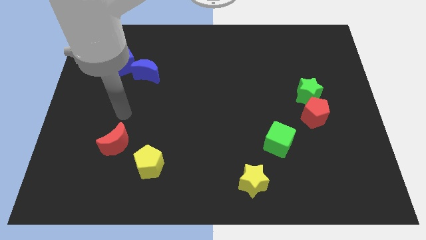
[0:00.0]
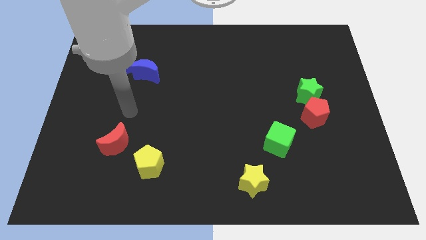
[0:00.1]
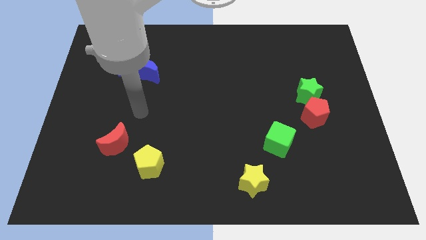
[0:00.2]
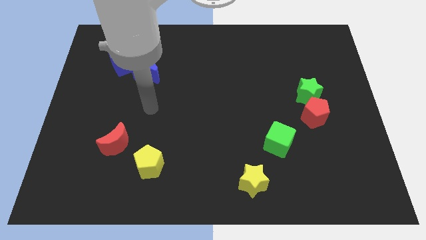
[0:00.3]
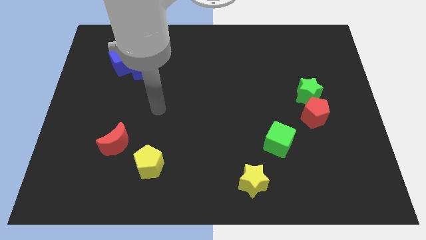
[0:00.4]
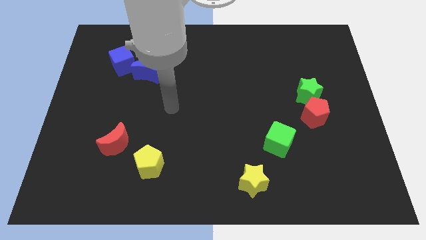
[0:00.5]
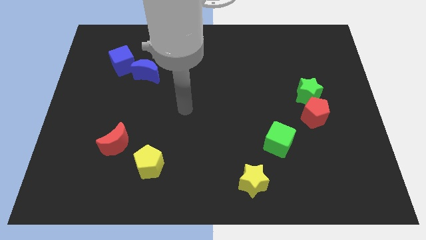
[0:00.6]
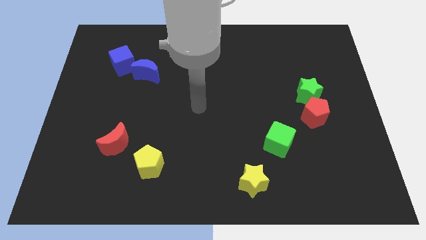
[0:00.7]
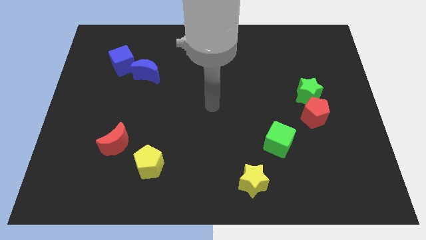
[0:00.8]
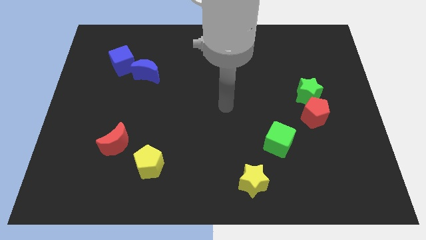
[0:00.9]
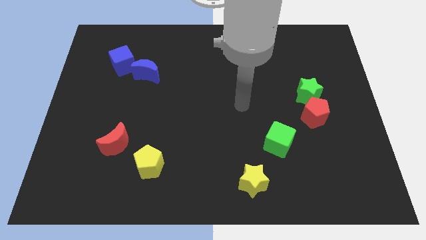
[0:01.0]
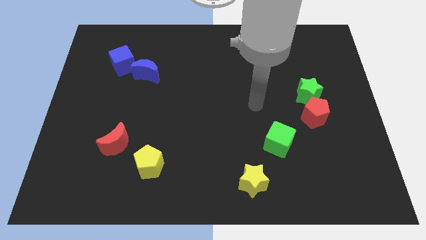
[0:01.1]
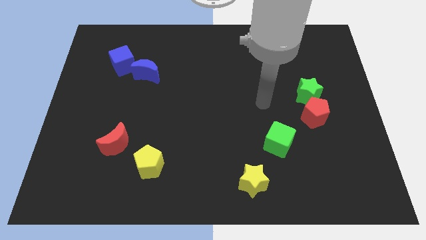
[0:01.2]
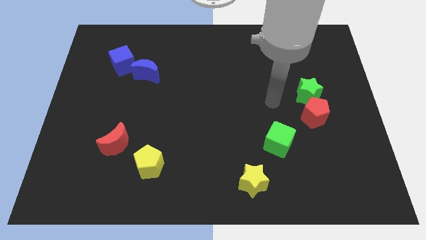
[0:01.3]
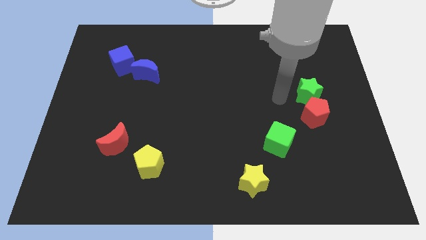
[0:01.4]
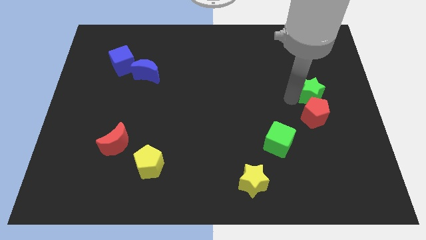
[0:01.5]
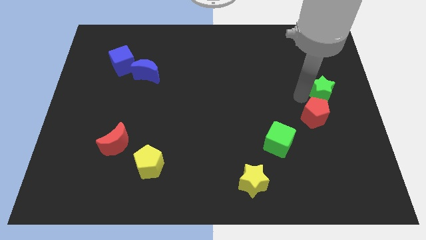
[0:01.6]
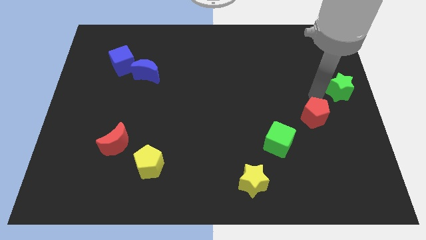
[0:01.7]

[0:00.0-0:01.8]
move the red pentagon away from the green star

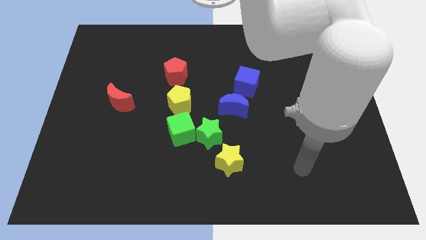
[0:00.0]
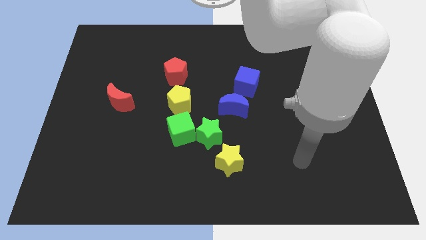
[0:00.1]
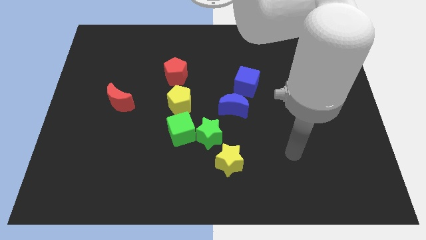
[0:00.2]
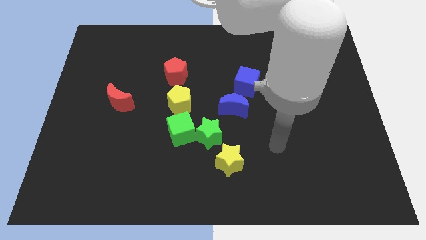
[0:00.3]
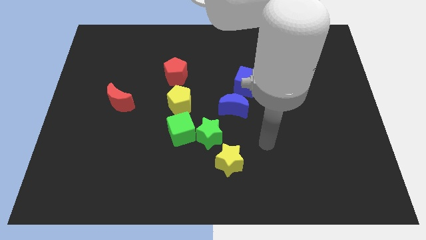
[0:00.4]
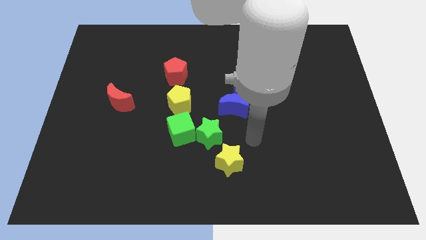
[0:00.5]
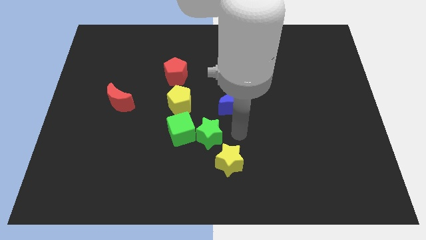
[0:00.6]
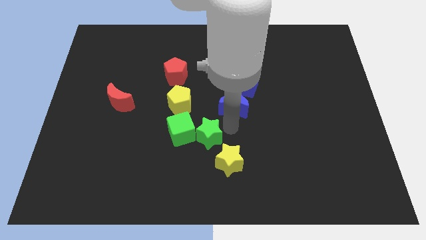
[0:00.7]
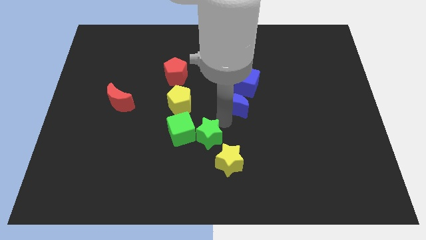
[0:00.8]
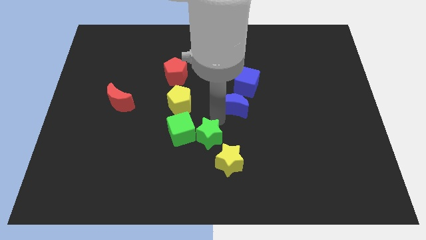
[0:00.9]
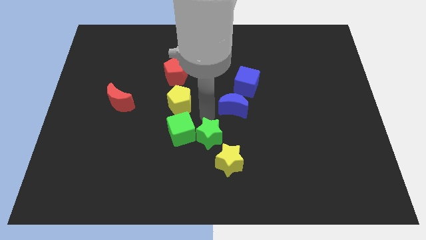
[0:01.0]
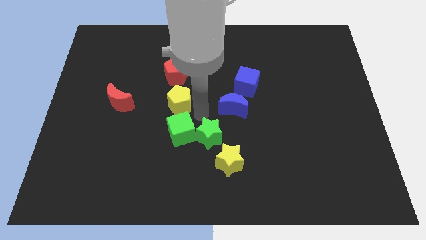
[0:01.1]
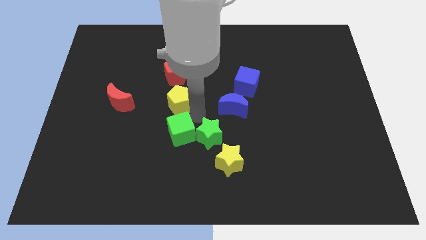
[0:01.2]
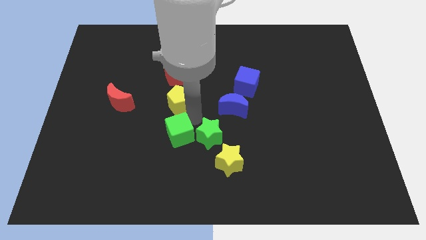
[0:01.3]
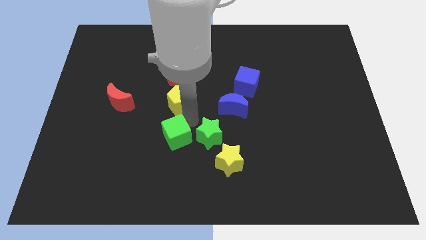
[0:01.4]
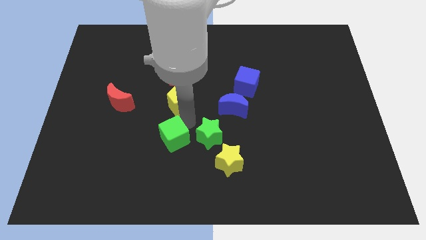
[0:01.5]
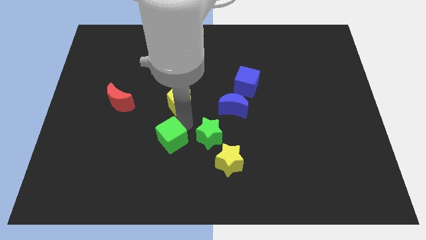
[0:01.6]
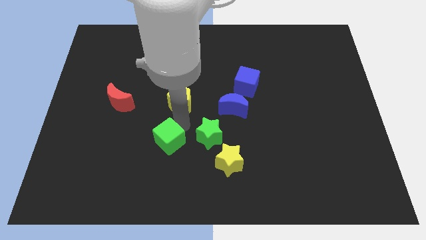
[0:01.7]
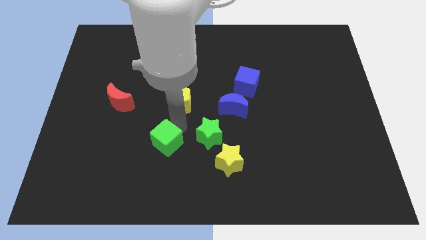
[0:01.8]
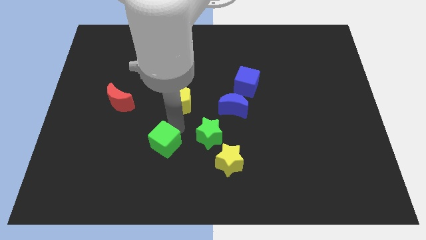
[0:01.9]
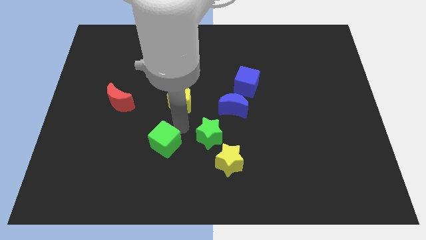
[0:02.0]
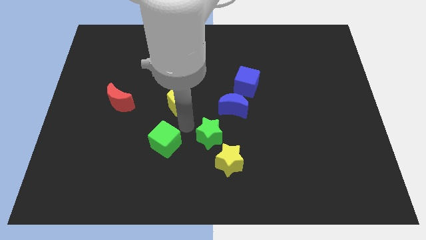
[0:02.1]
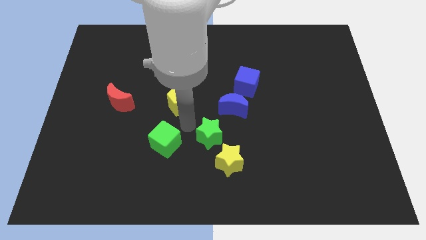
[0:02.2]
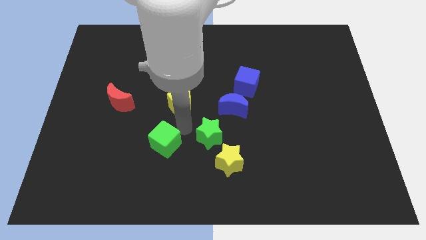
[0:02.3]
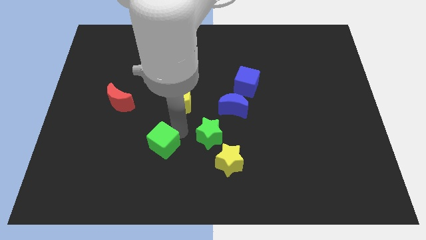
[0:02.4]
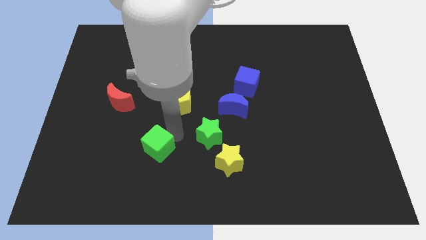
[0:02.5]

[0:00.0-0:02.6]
separate the green cube from the green star and yellow pentagon

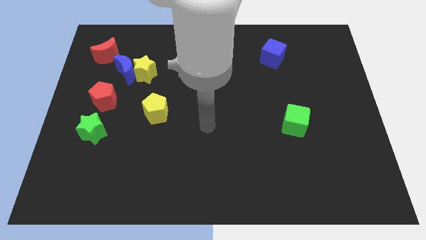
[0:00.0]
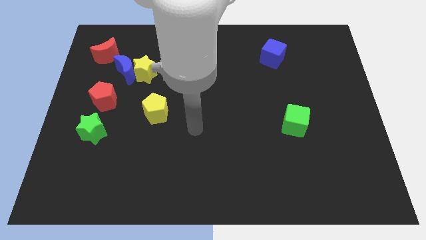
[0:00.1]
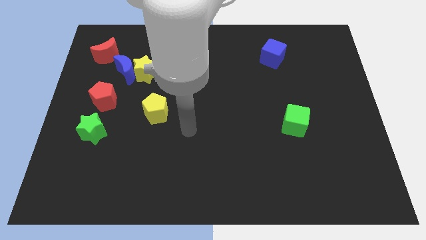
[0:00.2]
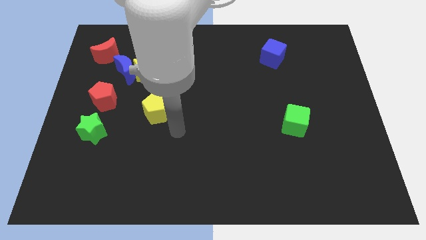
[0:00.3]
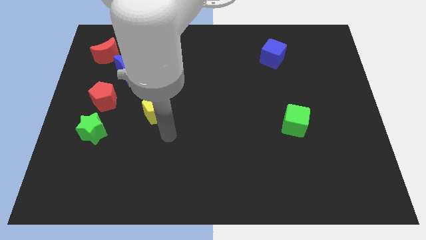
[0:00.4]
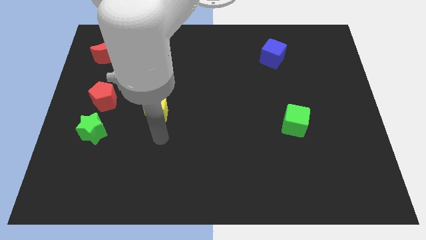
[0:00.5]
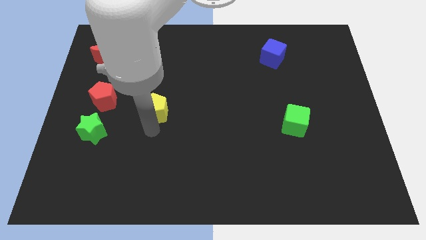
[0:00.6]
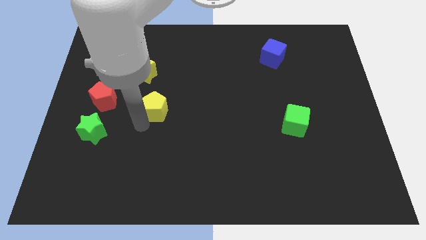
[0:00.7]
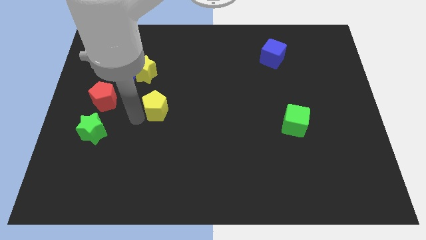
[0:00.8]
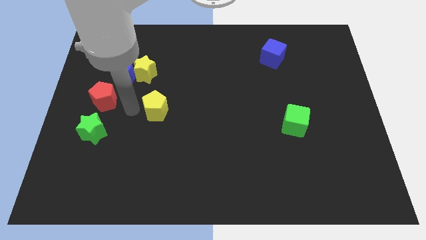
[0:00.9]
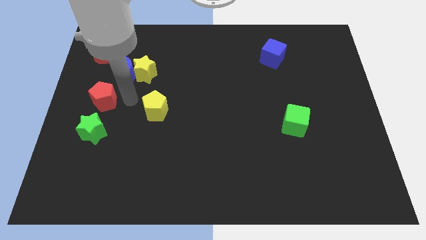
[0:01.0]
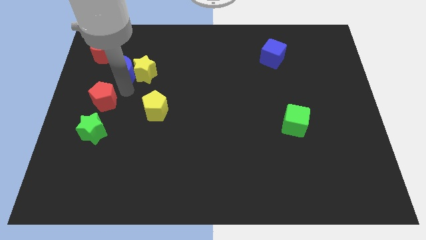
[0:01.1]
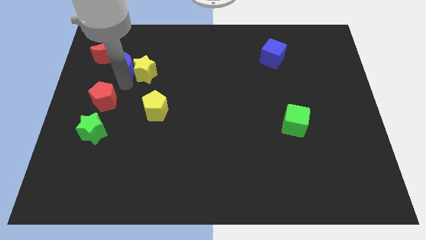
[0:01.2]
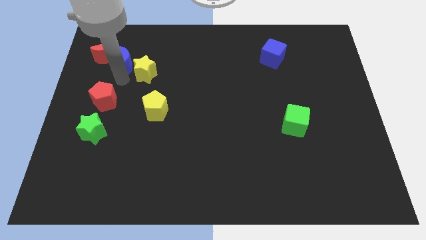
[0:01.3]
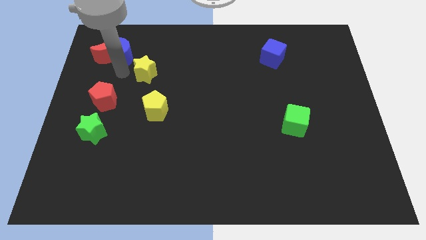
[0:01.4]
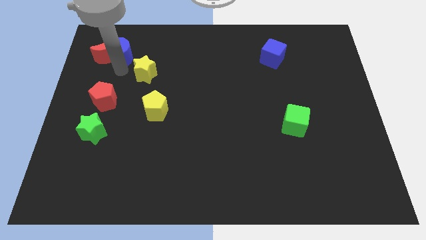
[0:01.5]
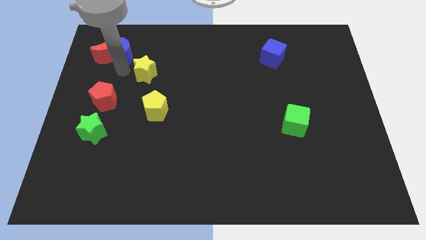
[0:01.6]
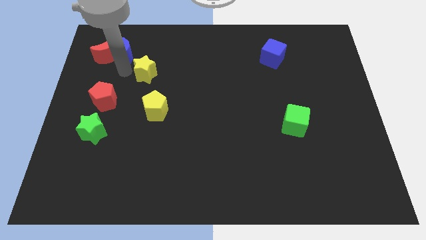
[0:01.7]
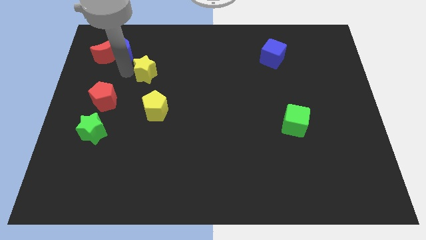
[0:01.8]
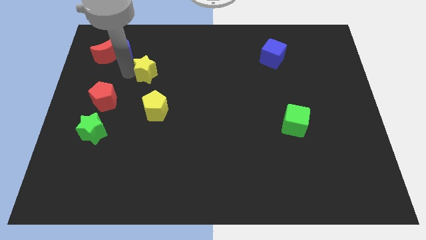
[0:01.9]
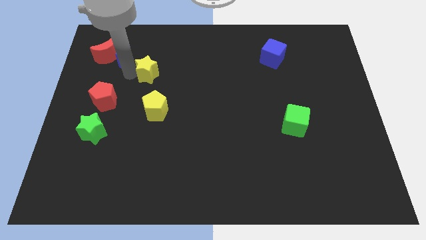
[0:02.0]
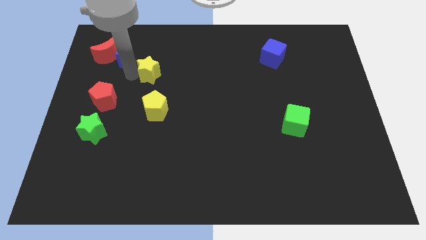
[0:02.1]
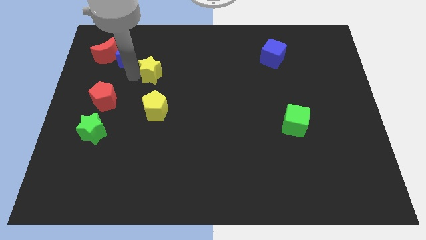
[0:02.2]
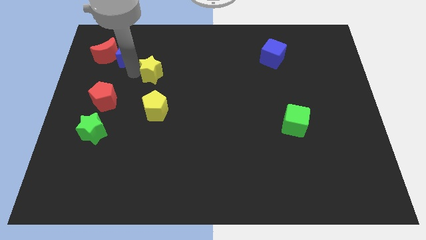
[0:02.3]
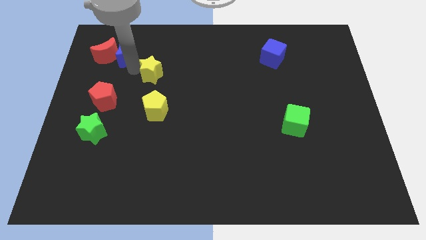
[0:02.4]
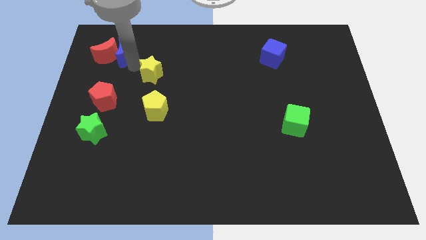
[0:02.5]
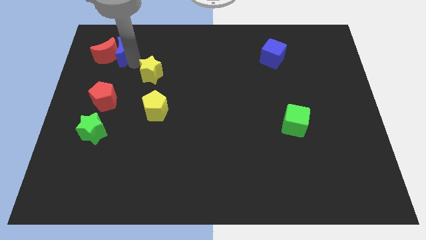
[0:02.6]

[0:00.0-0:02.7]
pull the yellow star apart from the blue moon

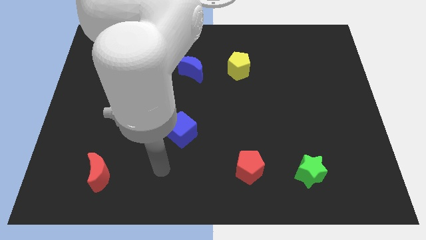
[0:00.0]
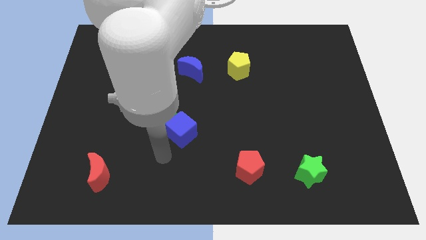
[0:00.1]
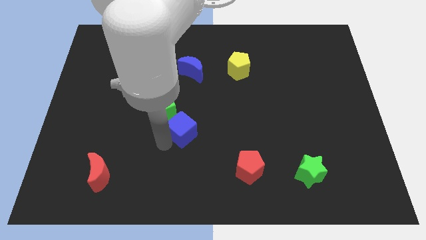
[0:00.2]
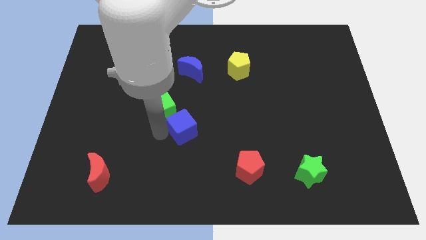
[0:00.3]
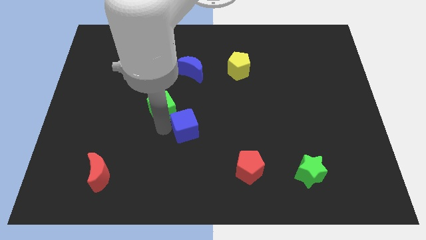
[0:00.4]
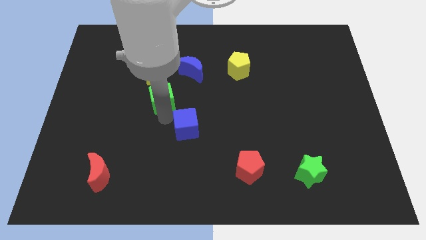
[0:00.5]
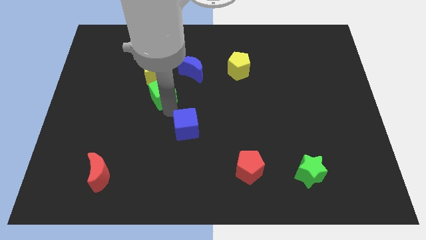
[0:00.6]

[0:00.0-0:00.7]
separate the blue cube from the green cube

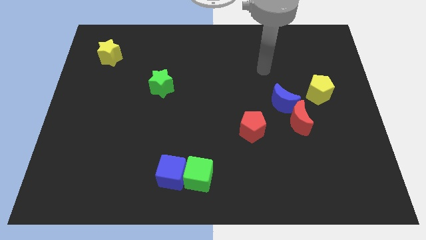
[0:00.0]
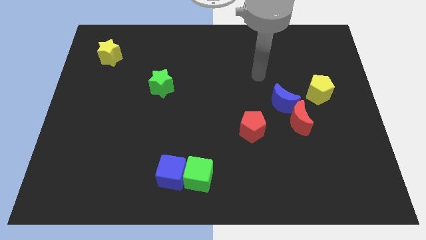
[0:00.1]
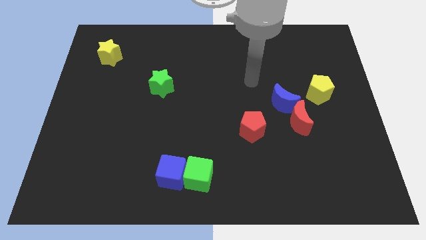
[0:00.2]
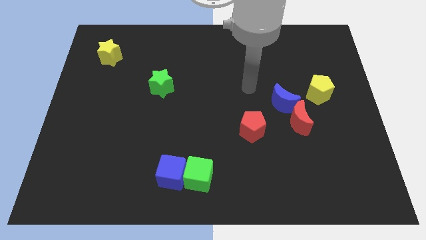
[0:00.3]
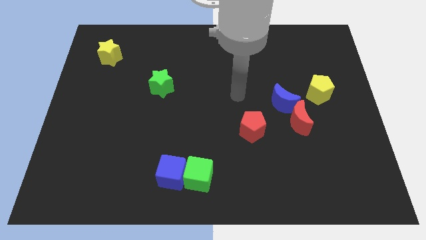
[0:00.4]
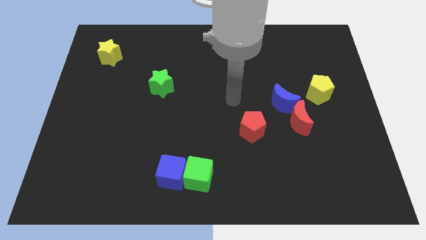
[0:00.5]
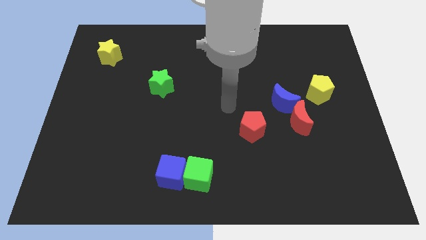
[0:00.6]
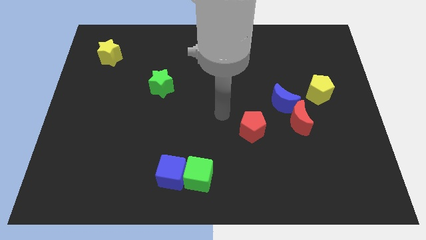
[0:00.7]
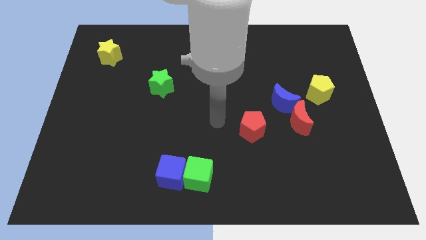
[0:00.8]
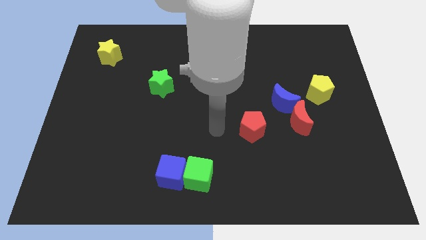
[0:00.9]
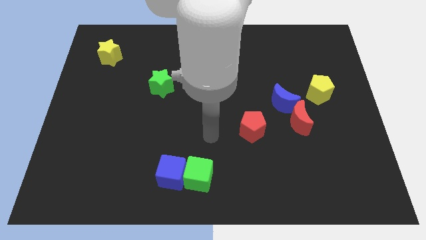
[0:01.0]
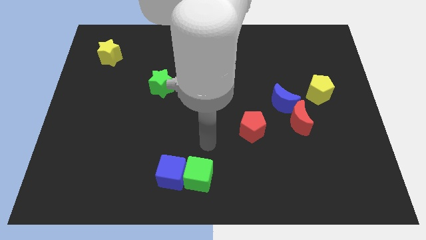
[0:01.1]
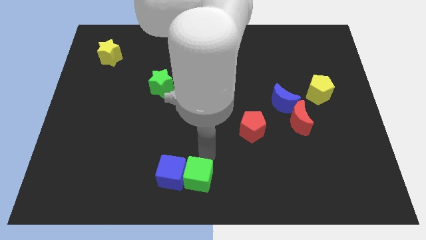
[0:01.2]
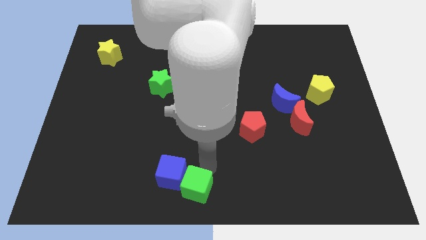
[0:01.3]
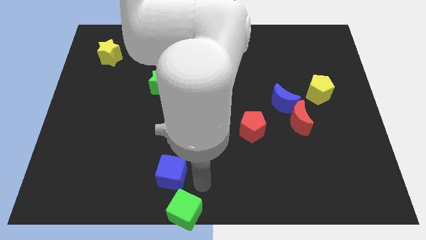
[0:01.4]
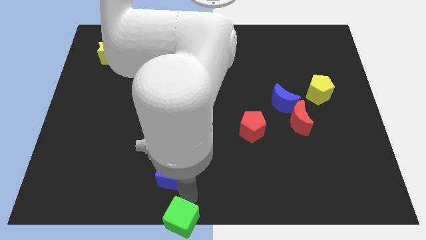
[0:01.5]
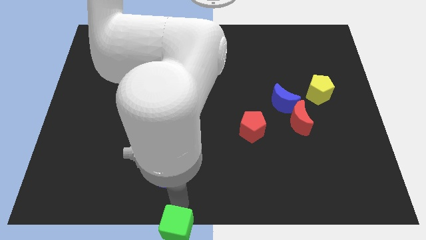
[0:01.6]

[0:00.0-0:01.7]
move the blue cube away from the green cube
